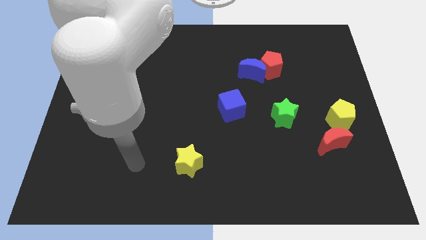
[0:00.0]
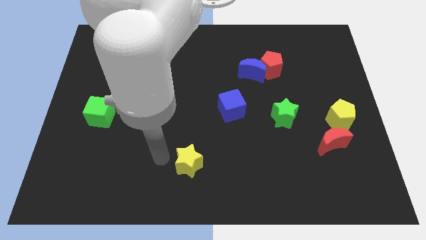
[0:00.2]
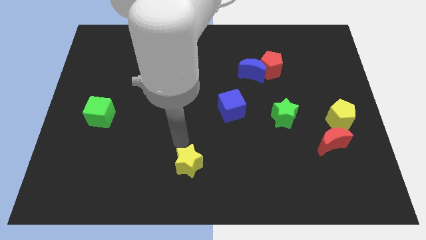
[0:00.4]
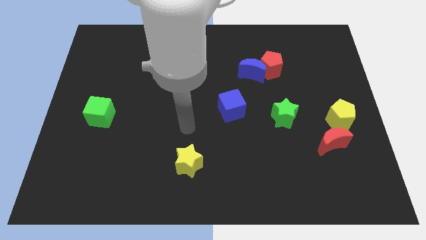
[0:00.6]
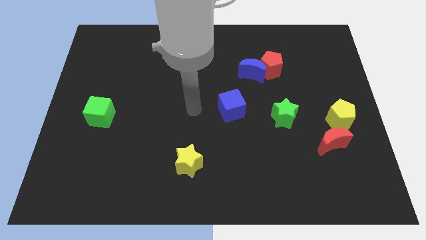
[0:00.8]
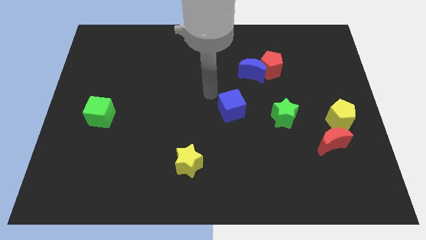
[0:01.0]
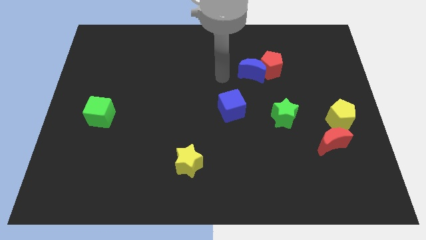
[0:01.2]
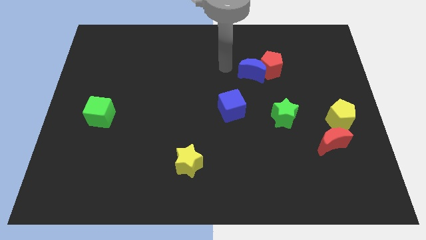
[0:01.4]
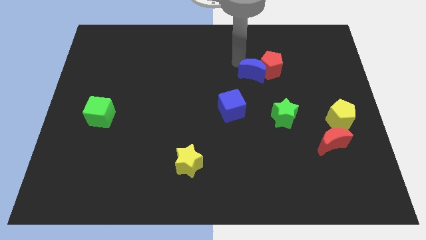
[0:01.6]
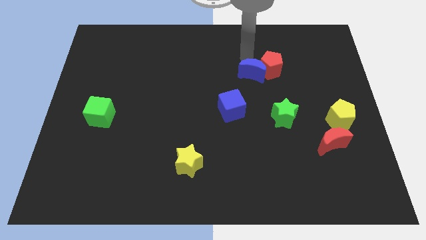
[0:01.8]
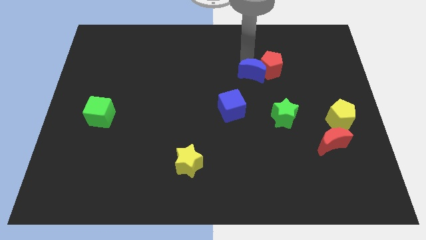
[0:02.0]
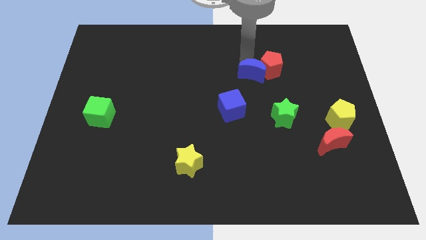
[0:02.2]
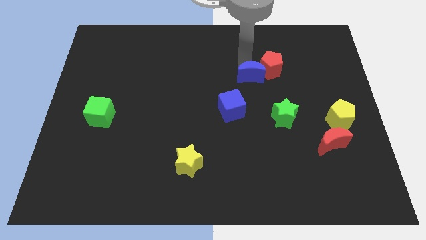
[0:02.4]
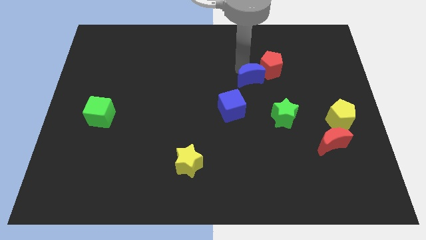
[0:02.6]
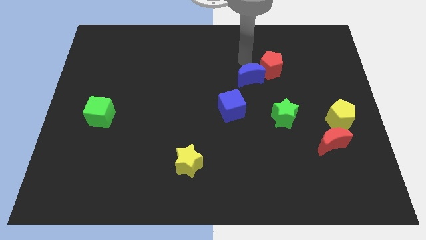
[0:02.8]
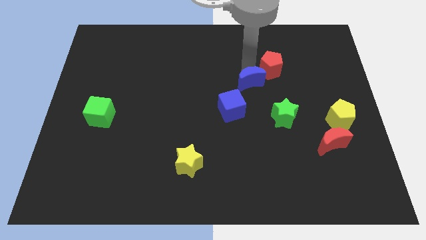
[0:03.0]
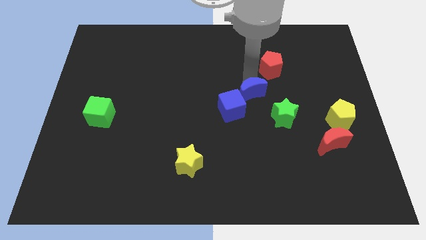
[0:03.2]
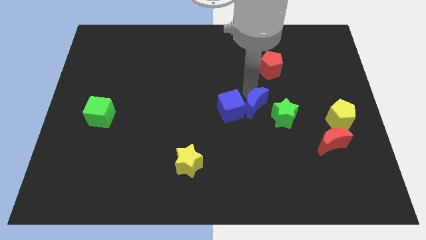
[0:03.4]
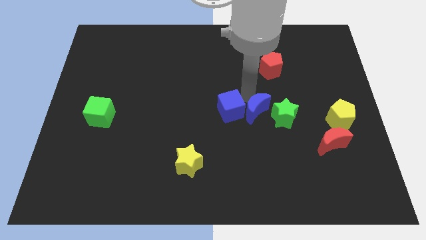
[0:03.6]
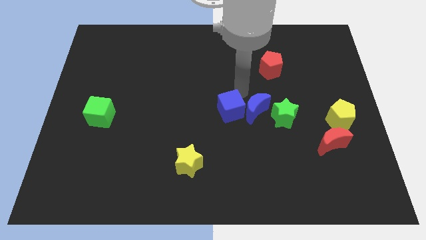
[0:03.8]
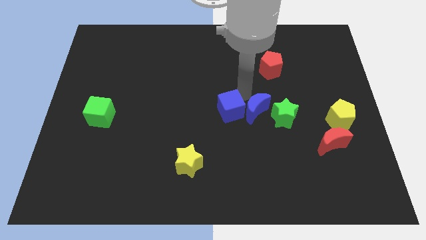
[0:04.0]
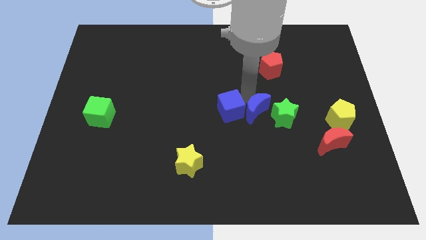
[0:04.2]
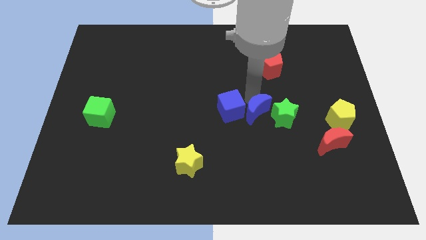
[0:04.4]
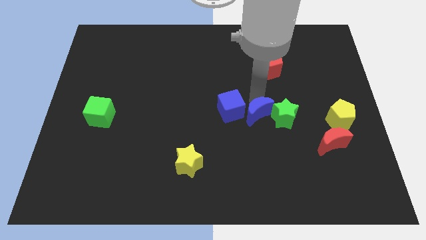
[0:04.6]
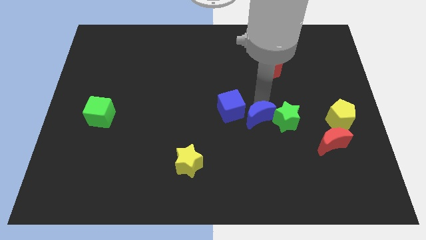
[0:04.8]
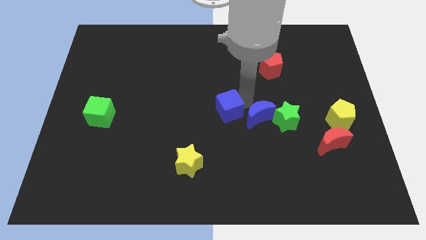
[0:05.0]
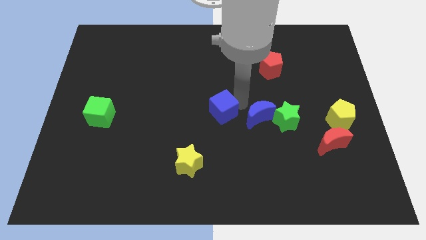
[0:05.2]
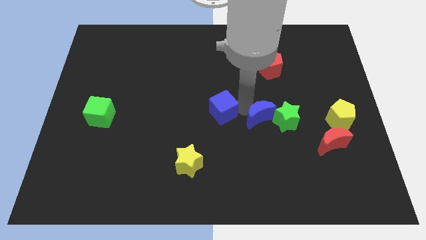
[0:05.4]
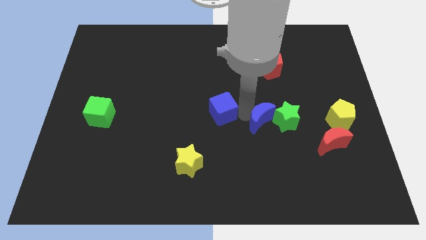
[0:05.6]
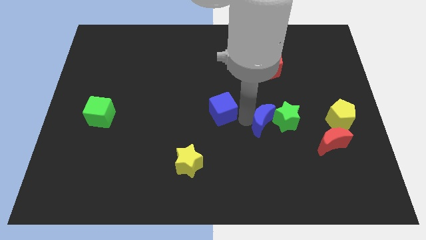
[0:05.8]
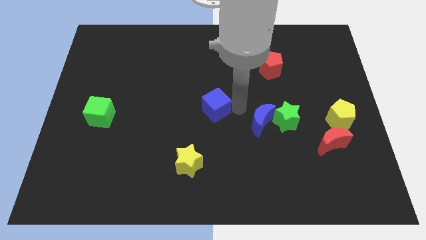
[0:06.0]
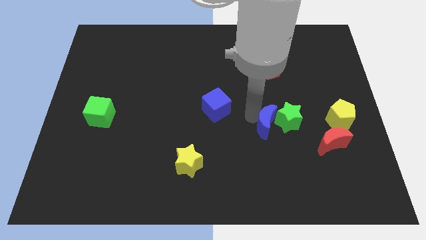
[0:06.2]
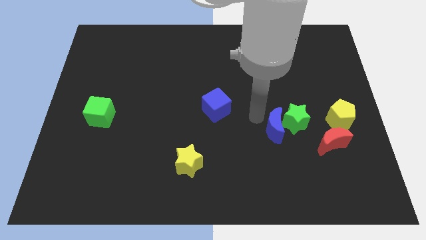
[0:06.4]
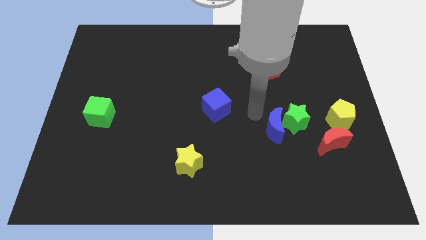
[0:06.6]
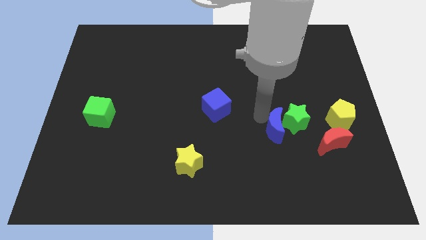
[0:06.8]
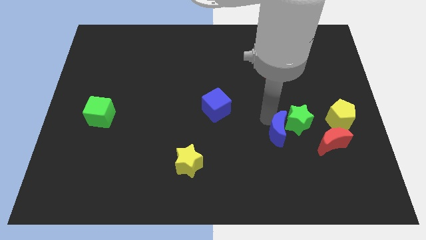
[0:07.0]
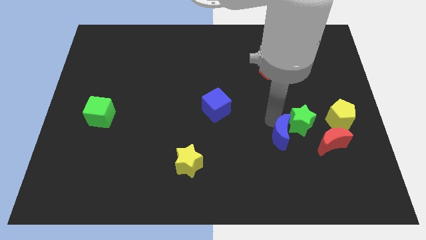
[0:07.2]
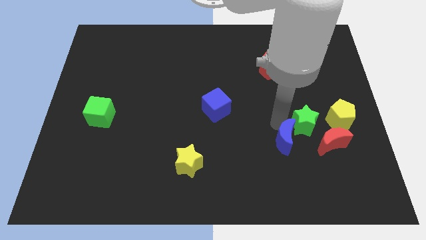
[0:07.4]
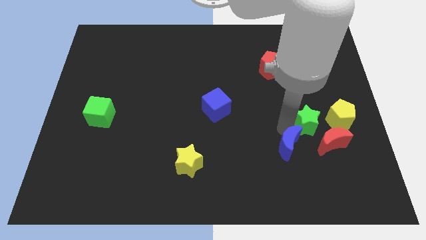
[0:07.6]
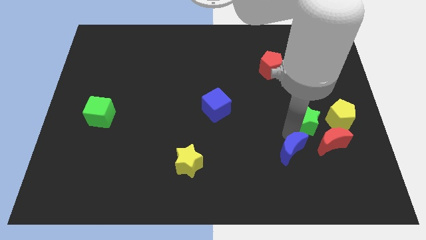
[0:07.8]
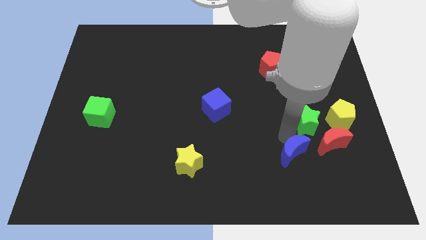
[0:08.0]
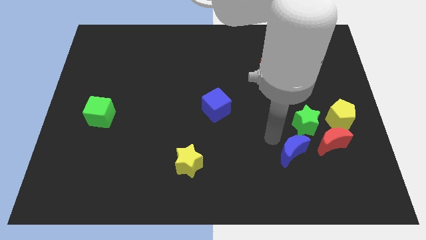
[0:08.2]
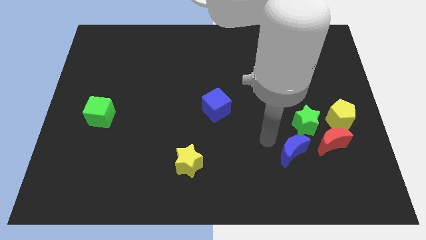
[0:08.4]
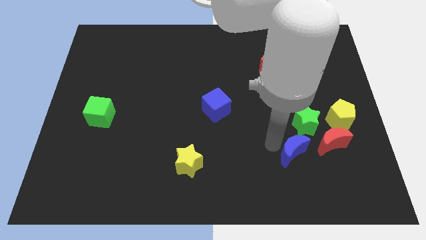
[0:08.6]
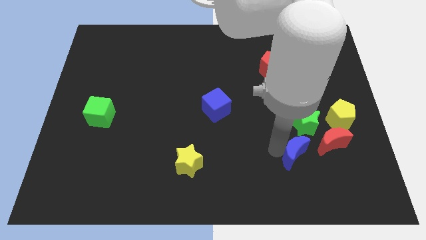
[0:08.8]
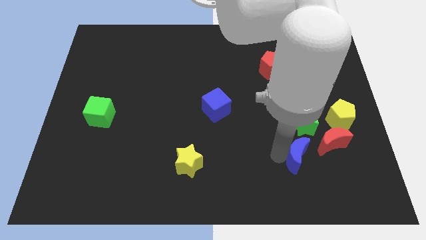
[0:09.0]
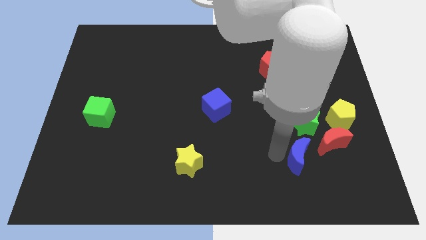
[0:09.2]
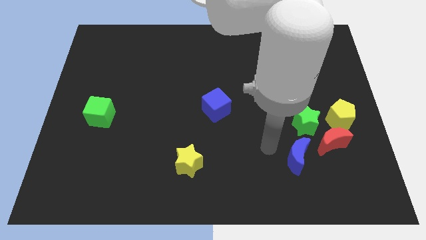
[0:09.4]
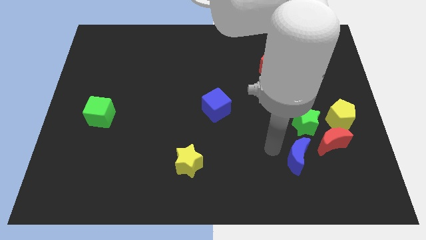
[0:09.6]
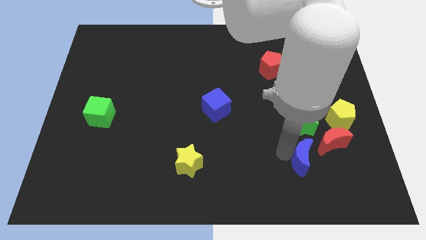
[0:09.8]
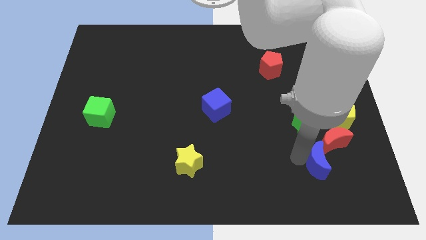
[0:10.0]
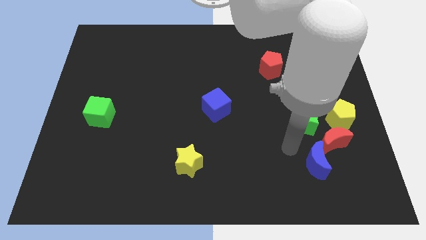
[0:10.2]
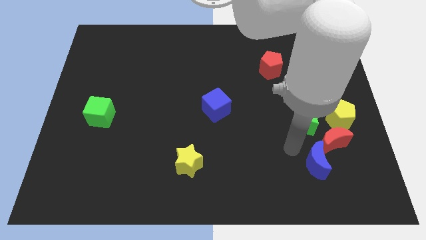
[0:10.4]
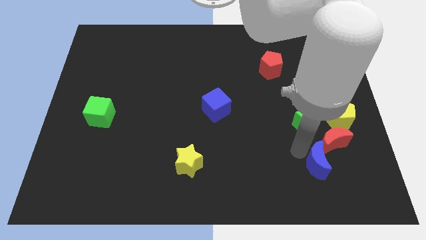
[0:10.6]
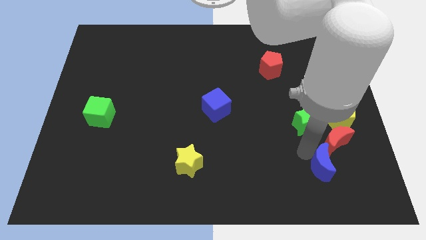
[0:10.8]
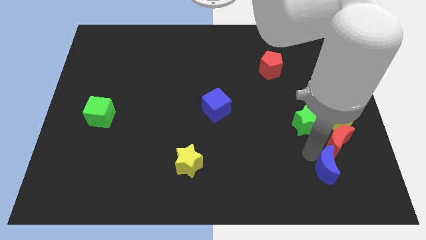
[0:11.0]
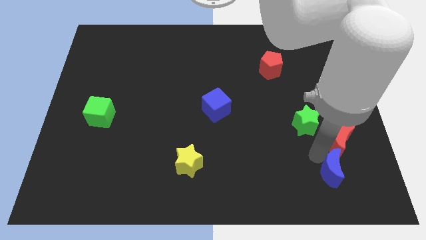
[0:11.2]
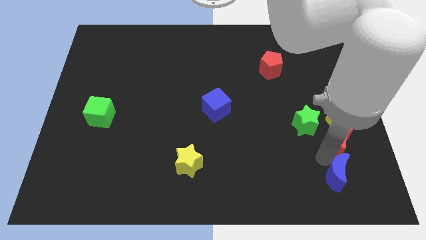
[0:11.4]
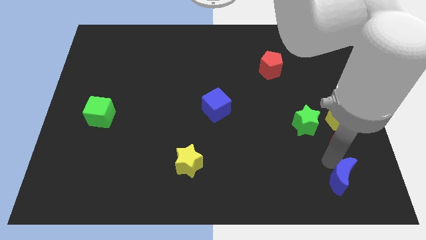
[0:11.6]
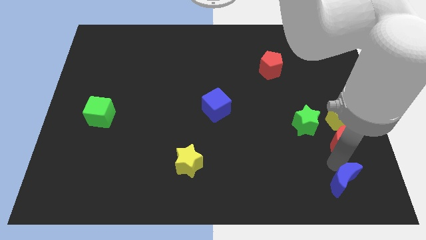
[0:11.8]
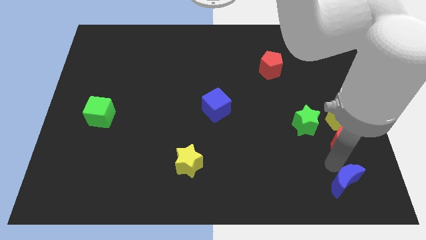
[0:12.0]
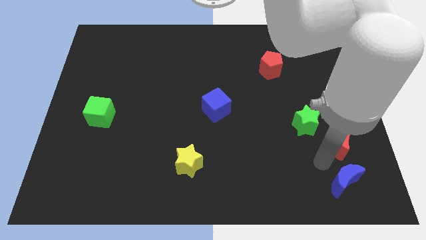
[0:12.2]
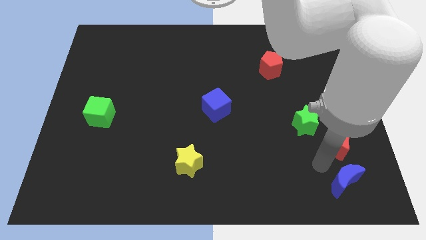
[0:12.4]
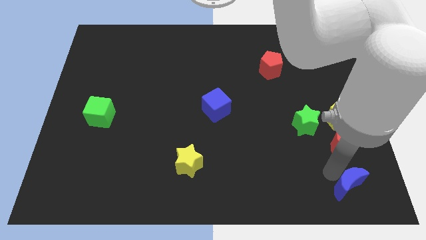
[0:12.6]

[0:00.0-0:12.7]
push the blue moon to the bottom right of the board
